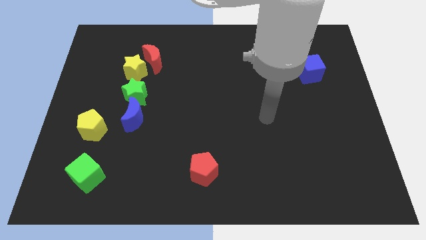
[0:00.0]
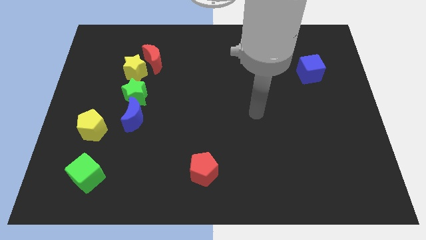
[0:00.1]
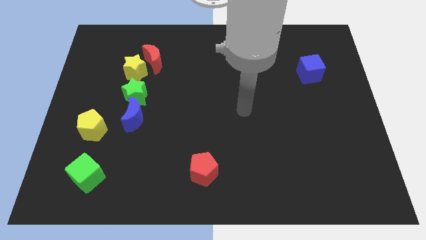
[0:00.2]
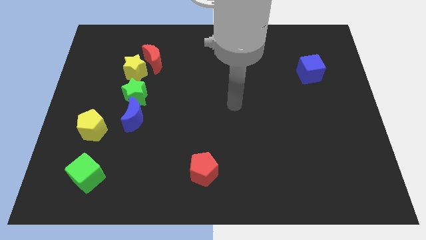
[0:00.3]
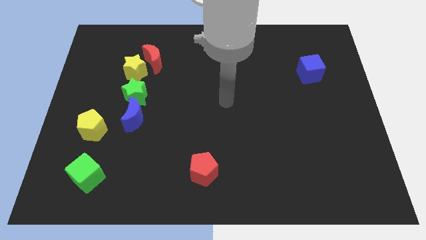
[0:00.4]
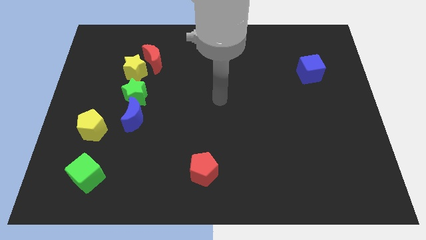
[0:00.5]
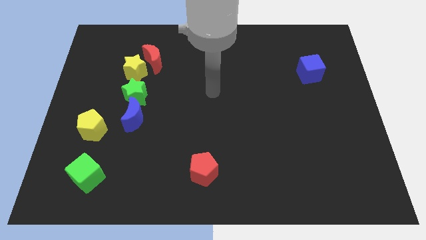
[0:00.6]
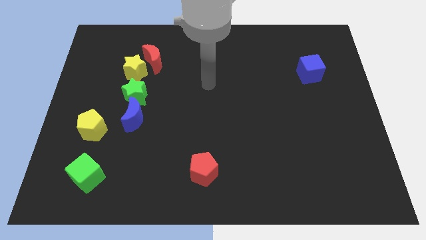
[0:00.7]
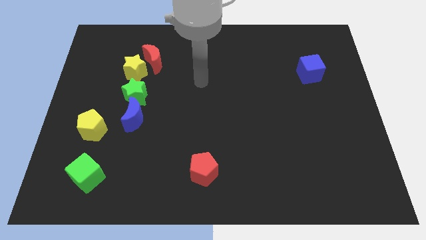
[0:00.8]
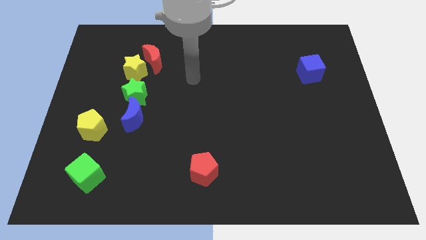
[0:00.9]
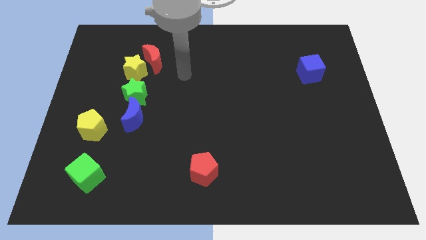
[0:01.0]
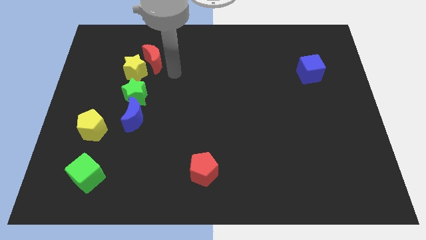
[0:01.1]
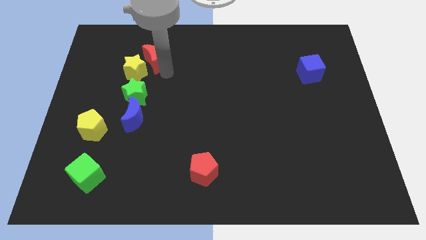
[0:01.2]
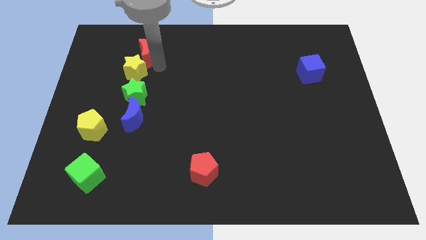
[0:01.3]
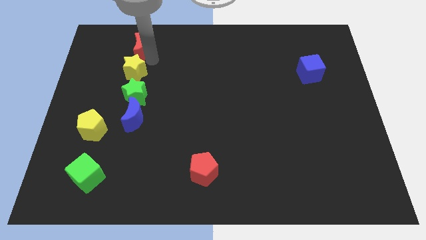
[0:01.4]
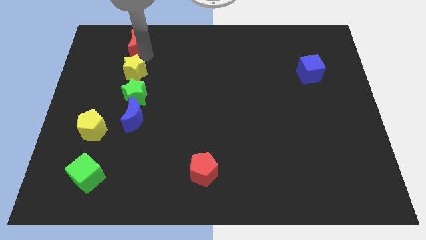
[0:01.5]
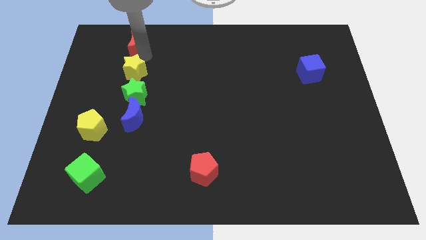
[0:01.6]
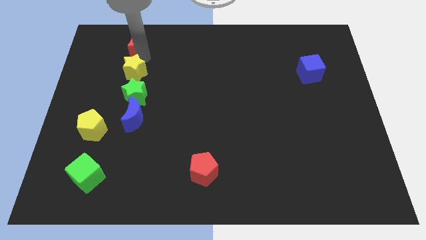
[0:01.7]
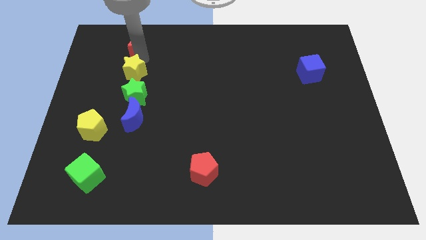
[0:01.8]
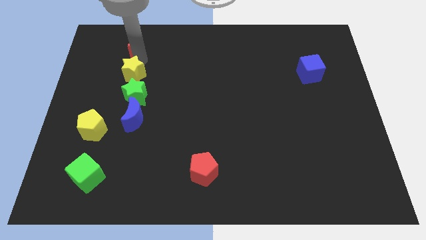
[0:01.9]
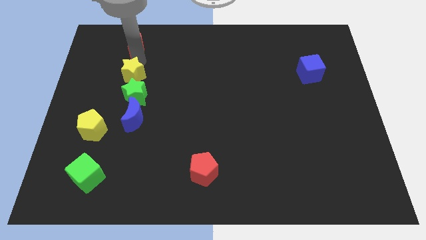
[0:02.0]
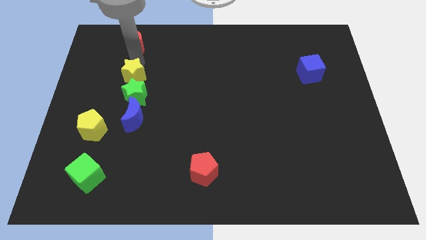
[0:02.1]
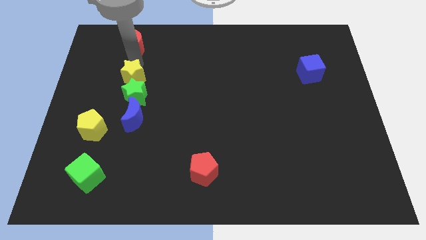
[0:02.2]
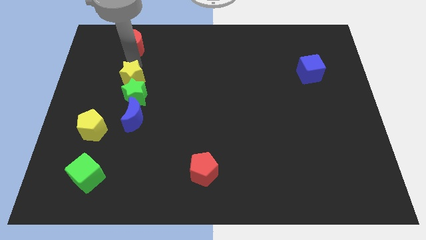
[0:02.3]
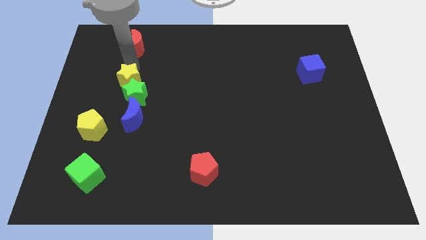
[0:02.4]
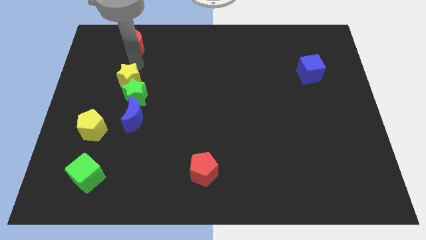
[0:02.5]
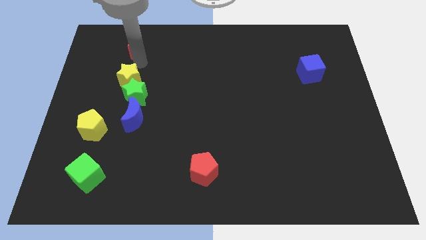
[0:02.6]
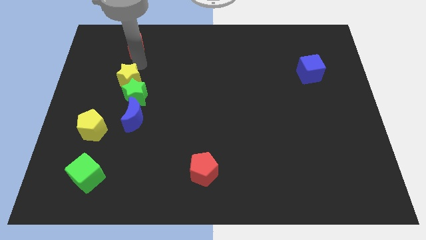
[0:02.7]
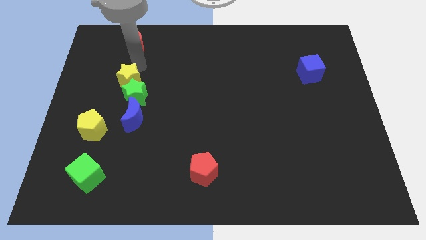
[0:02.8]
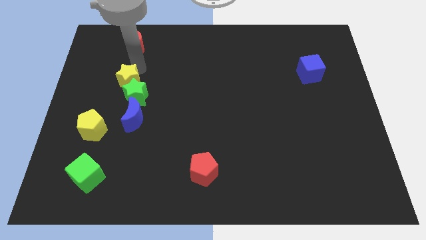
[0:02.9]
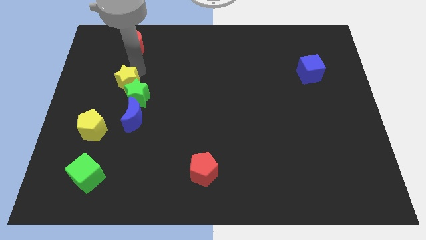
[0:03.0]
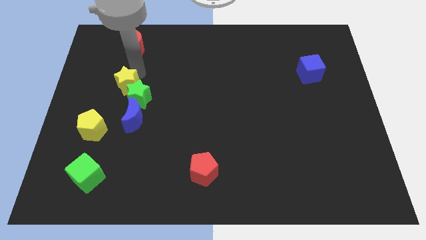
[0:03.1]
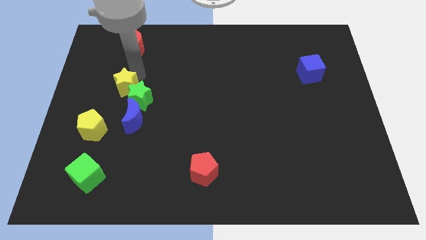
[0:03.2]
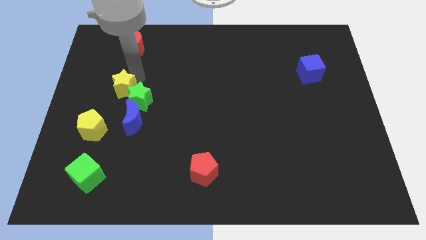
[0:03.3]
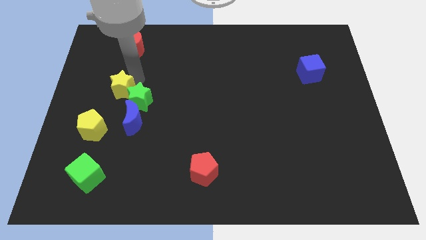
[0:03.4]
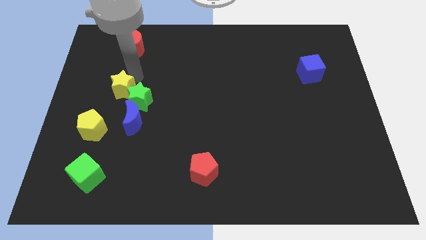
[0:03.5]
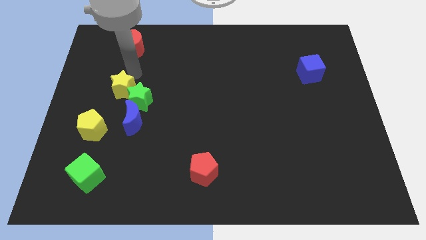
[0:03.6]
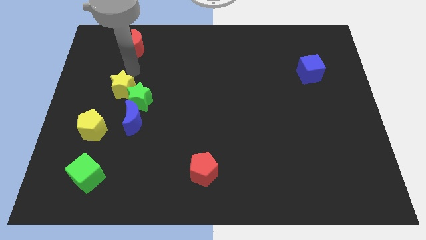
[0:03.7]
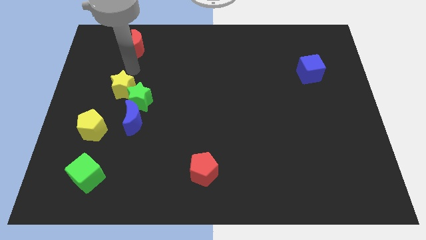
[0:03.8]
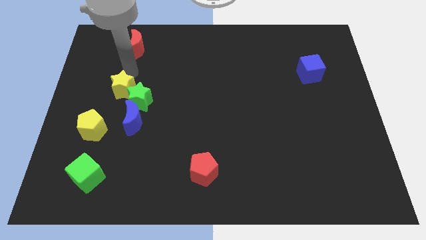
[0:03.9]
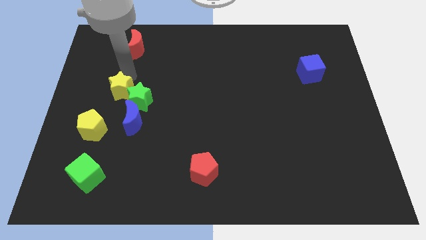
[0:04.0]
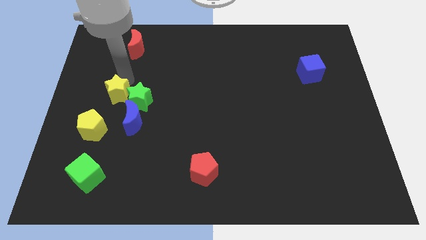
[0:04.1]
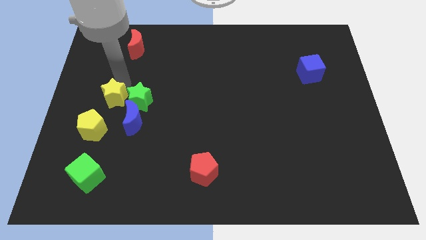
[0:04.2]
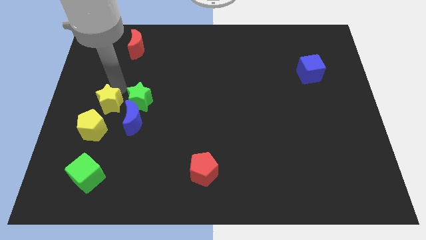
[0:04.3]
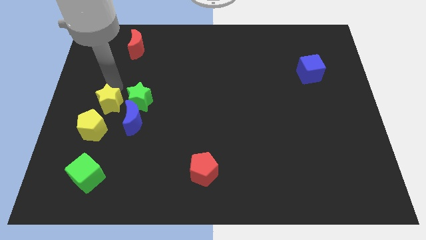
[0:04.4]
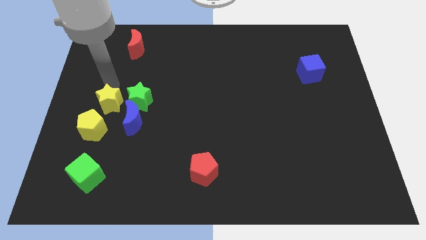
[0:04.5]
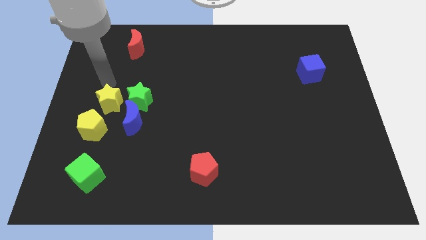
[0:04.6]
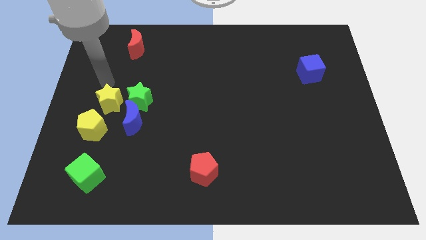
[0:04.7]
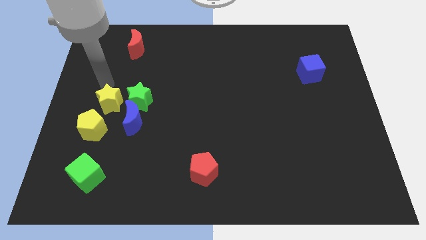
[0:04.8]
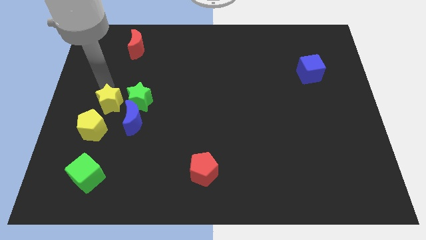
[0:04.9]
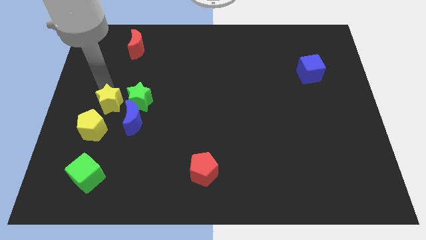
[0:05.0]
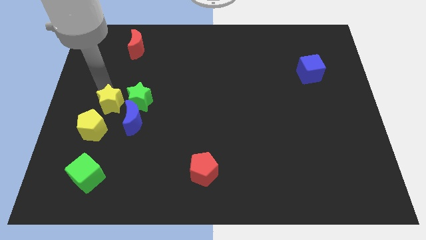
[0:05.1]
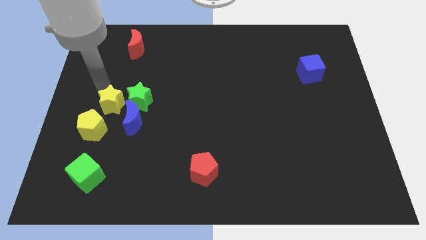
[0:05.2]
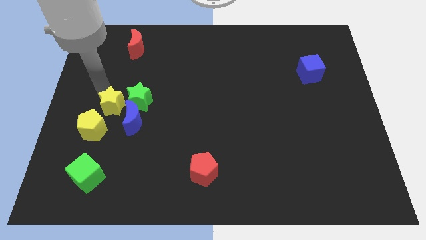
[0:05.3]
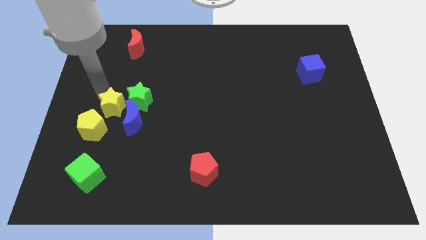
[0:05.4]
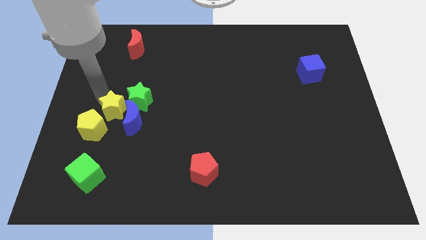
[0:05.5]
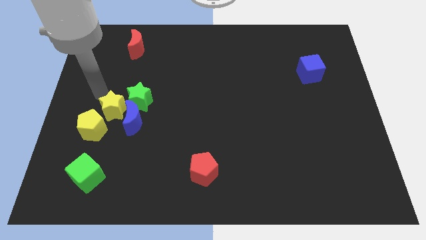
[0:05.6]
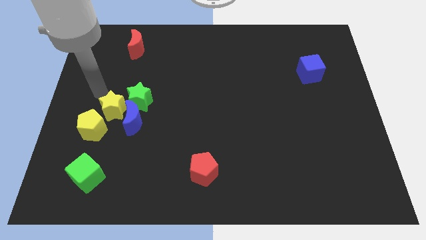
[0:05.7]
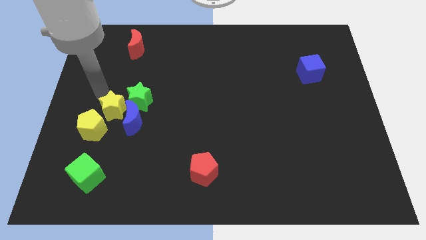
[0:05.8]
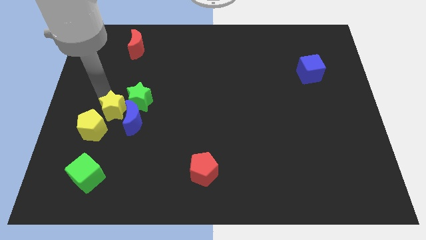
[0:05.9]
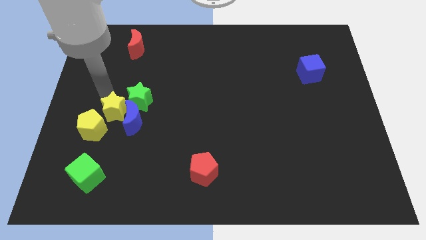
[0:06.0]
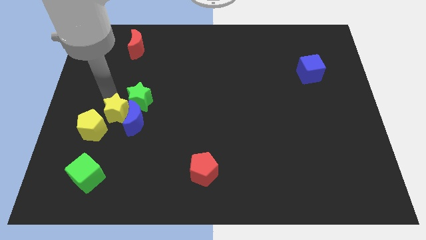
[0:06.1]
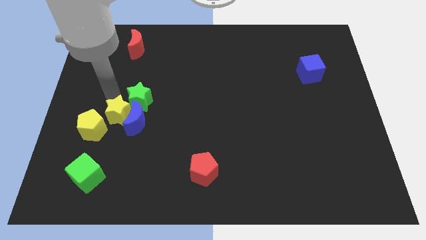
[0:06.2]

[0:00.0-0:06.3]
push the yellow star below the green star

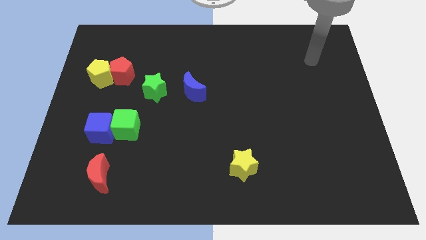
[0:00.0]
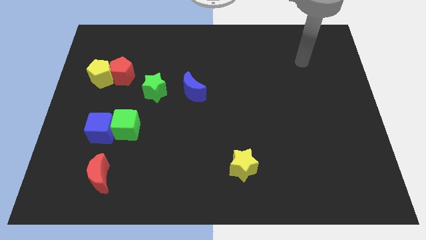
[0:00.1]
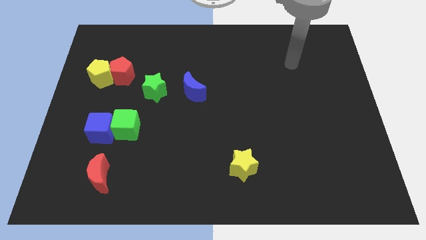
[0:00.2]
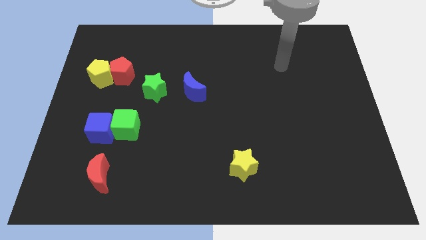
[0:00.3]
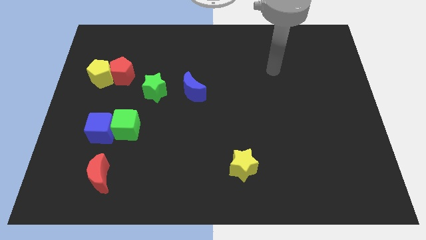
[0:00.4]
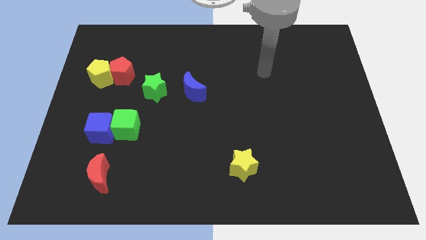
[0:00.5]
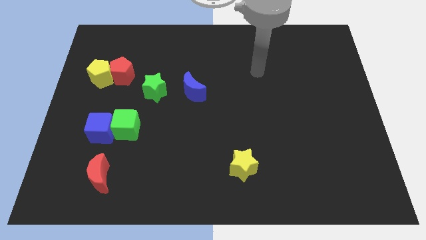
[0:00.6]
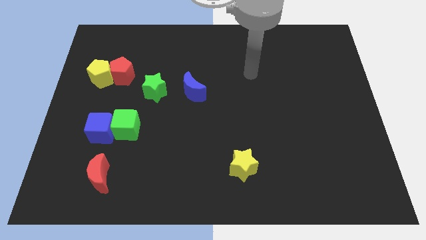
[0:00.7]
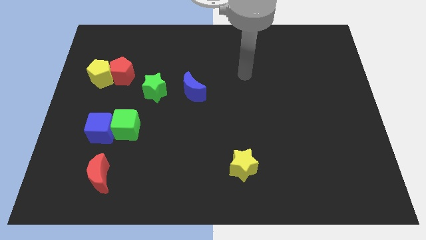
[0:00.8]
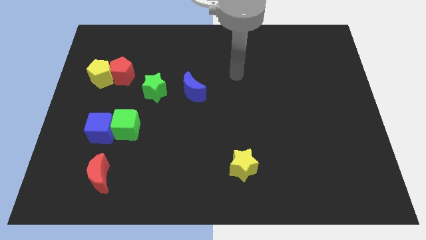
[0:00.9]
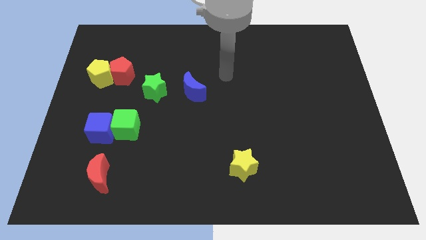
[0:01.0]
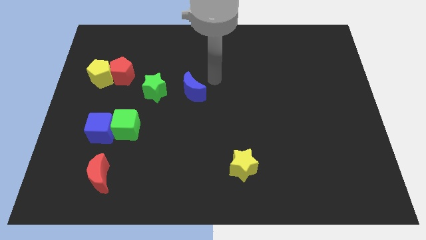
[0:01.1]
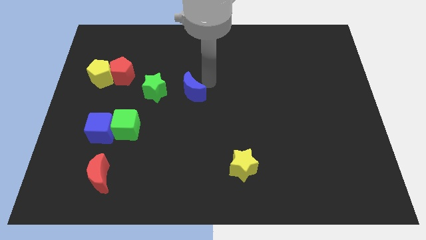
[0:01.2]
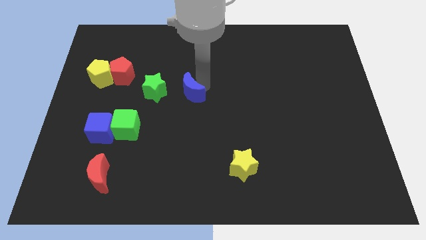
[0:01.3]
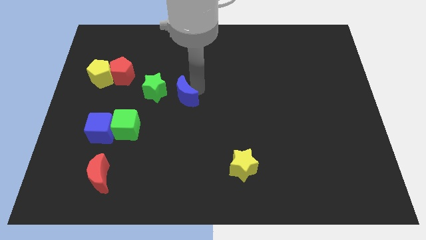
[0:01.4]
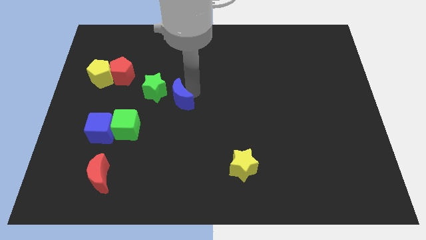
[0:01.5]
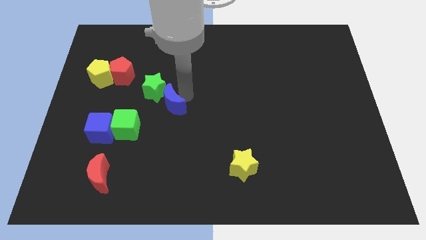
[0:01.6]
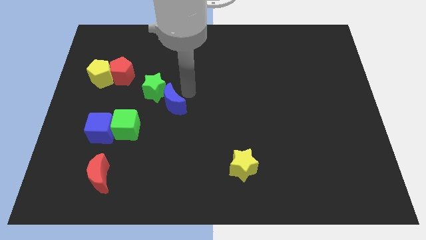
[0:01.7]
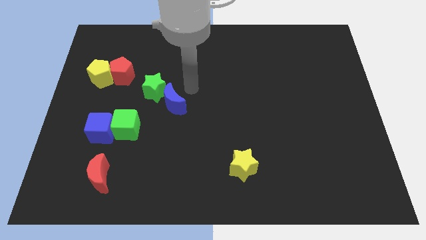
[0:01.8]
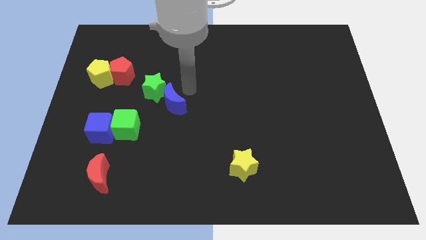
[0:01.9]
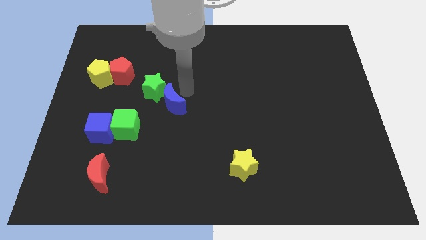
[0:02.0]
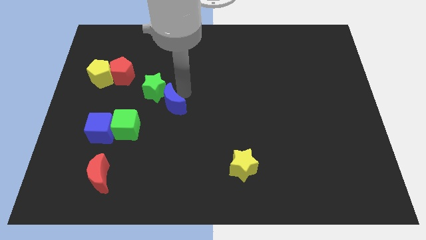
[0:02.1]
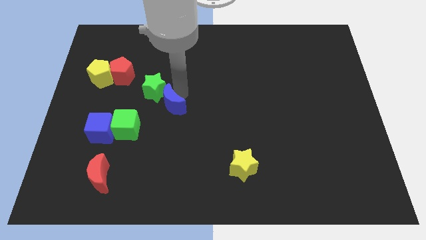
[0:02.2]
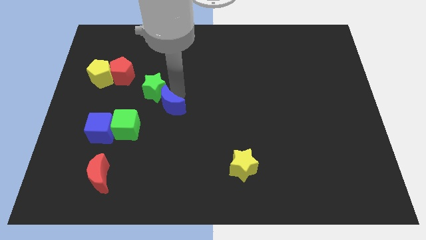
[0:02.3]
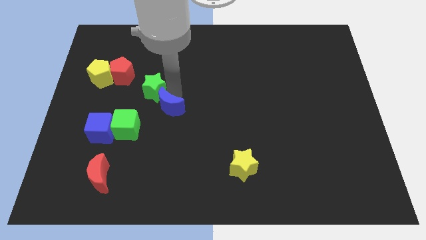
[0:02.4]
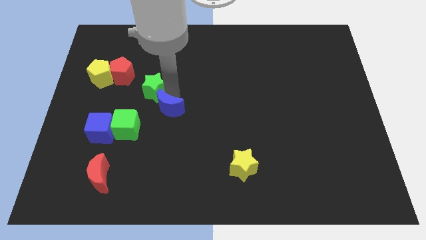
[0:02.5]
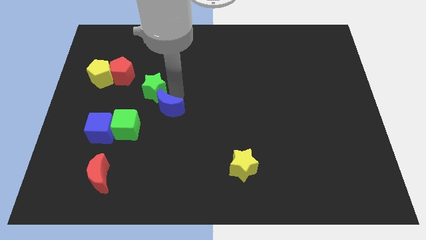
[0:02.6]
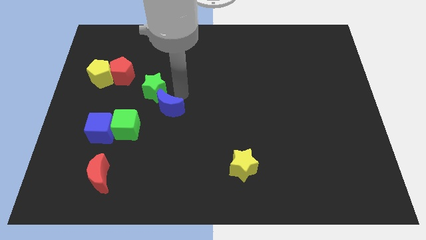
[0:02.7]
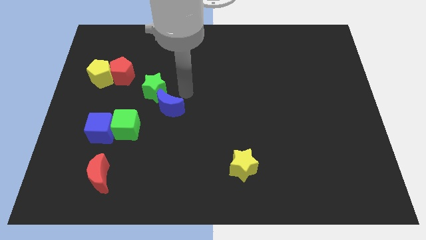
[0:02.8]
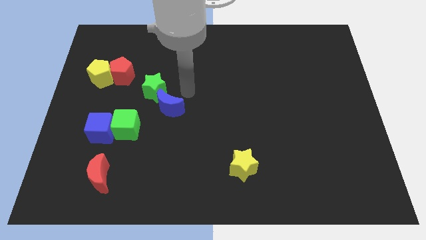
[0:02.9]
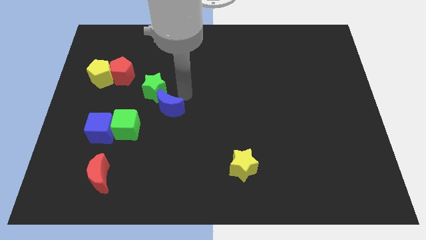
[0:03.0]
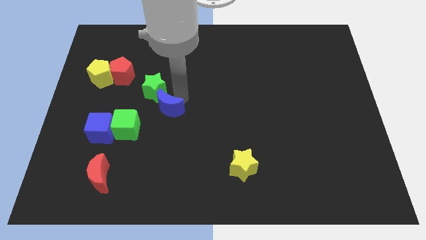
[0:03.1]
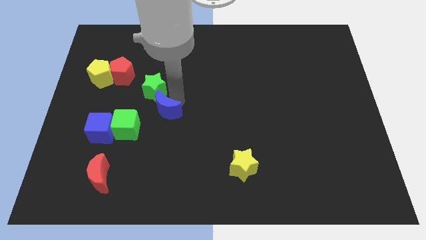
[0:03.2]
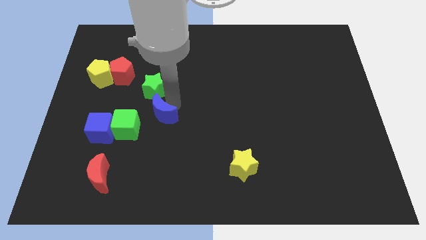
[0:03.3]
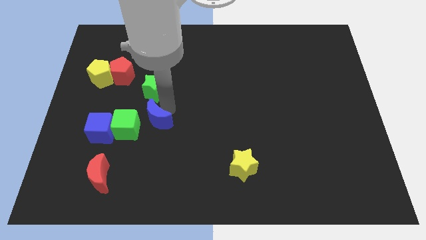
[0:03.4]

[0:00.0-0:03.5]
put the blue moon to the right side of the blue cube
